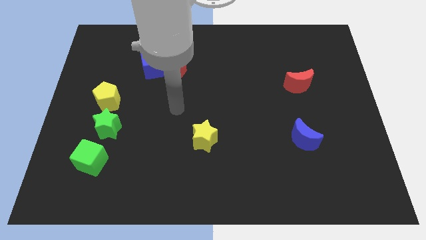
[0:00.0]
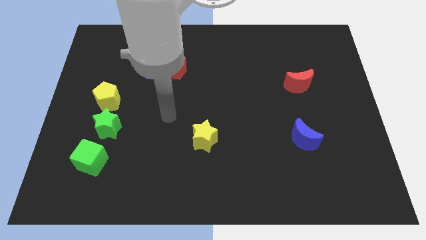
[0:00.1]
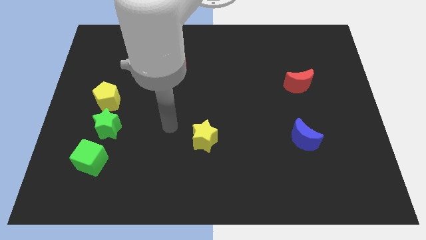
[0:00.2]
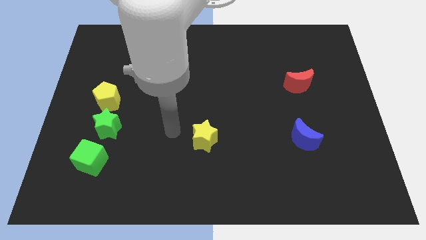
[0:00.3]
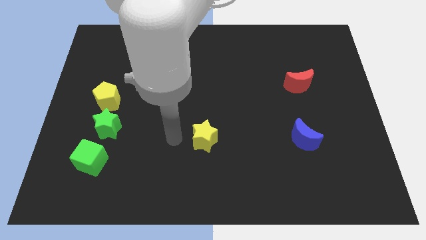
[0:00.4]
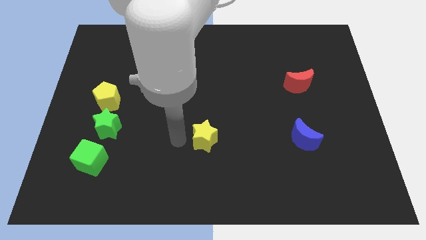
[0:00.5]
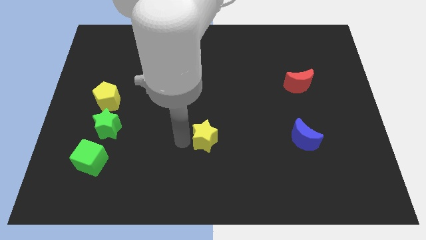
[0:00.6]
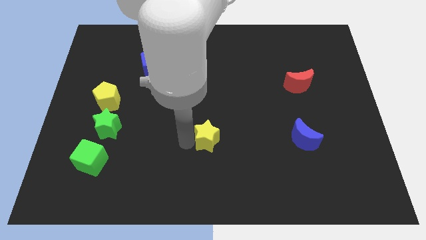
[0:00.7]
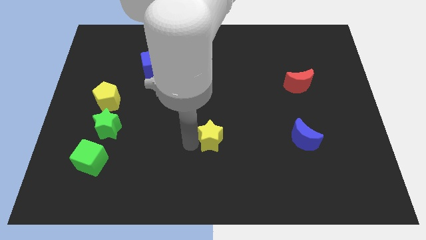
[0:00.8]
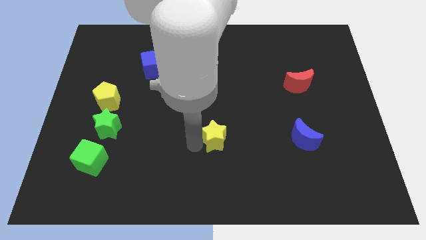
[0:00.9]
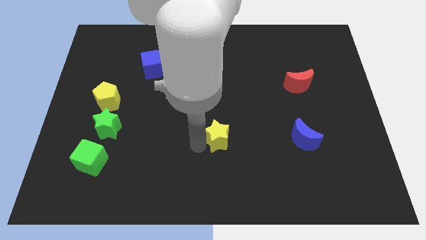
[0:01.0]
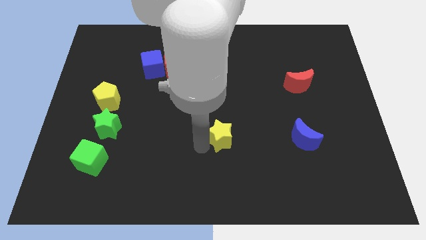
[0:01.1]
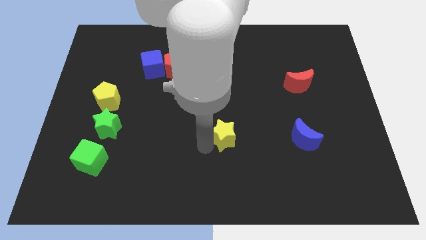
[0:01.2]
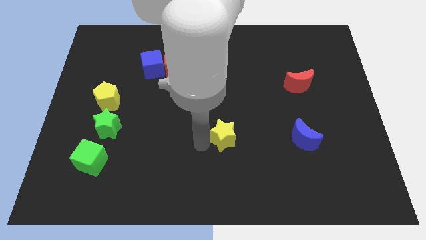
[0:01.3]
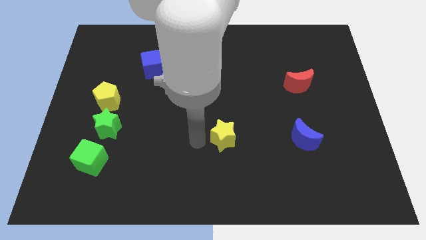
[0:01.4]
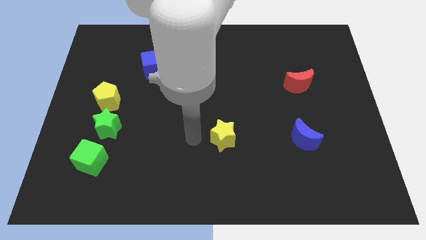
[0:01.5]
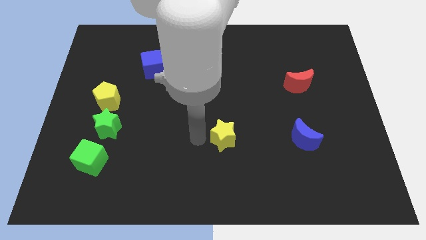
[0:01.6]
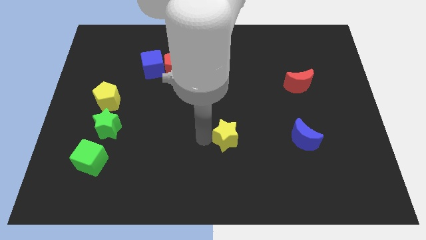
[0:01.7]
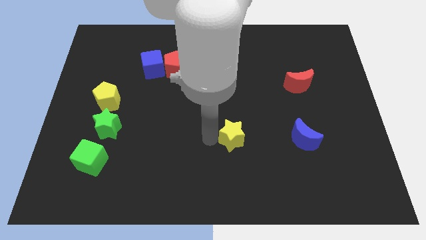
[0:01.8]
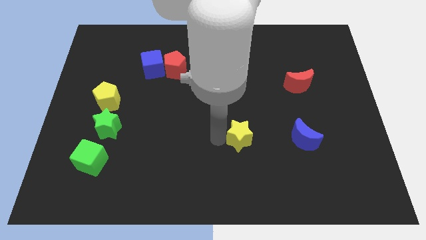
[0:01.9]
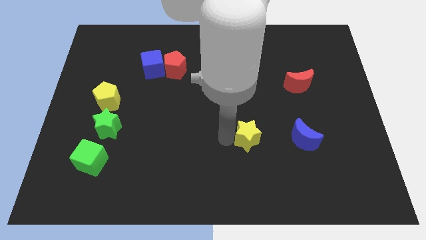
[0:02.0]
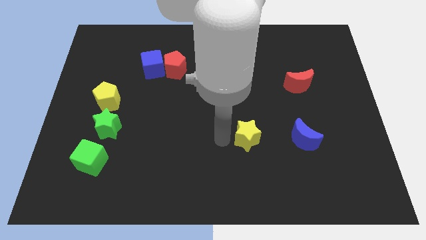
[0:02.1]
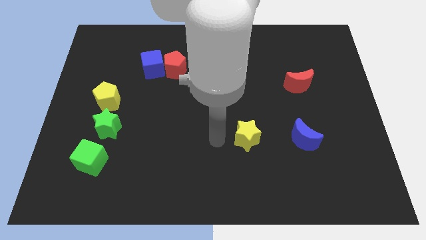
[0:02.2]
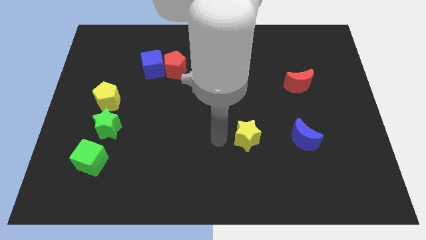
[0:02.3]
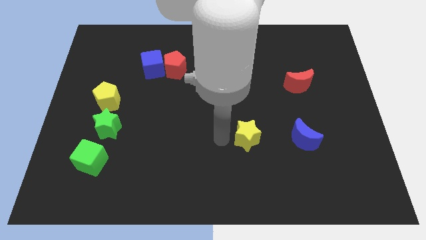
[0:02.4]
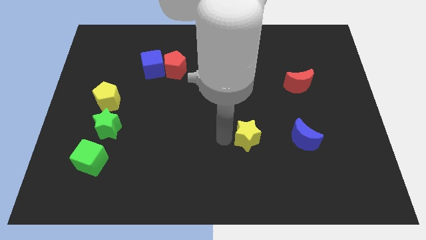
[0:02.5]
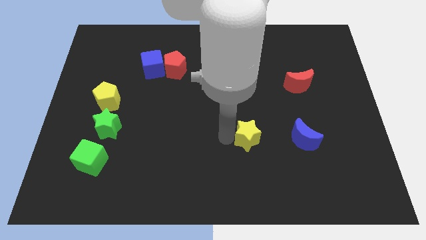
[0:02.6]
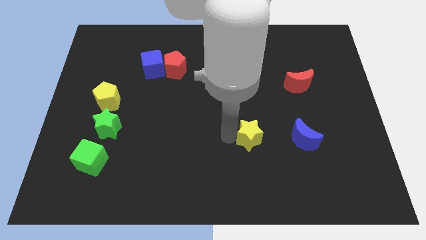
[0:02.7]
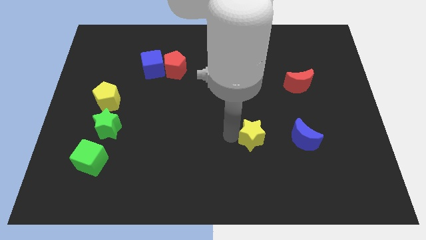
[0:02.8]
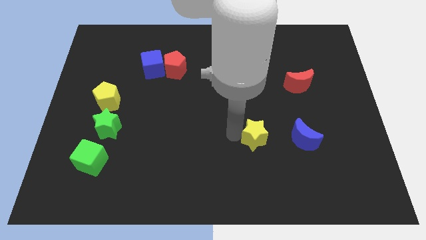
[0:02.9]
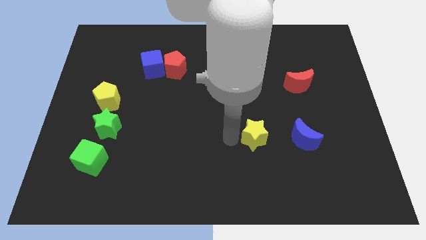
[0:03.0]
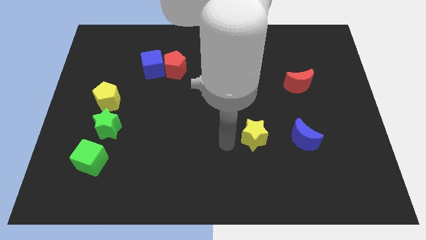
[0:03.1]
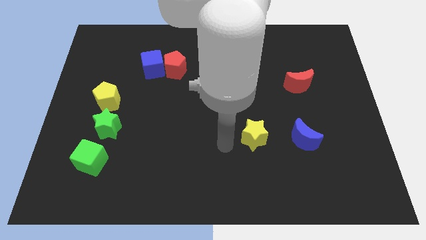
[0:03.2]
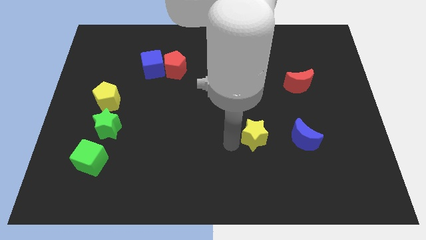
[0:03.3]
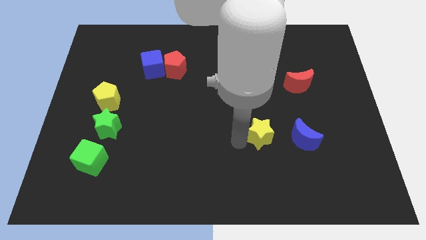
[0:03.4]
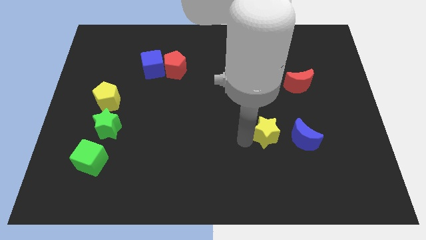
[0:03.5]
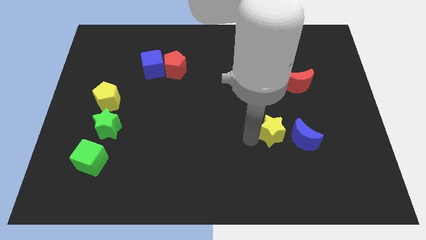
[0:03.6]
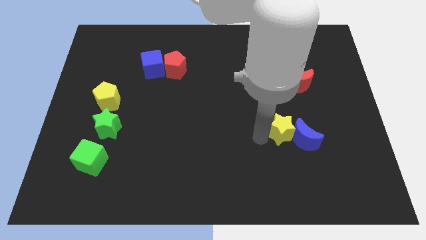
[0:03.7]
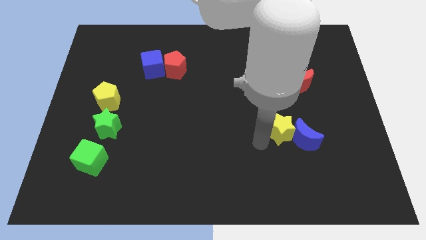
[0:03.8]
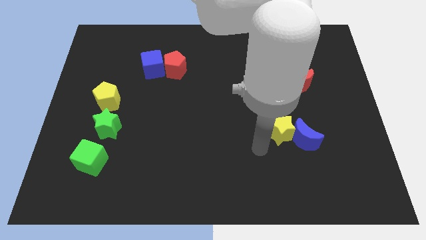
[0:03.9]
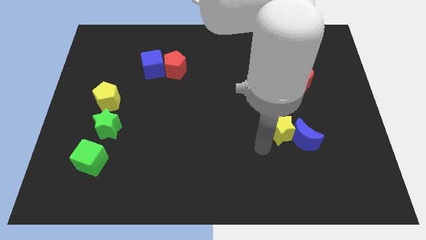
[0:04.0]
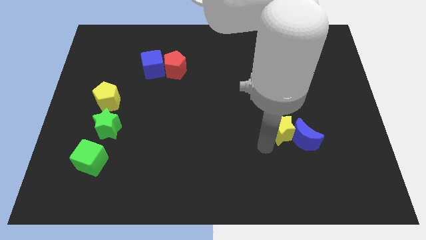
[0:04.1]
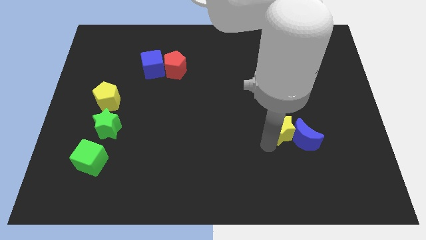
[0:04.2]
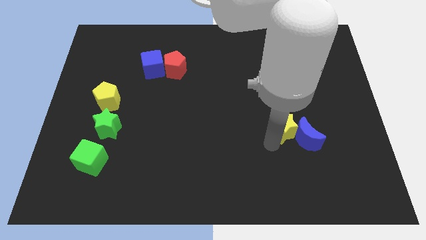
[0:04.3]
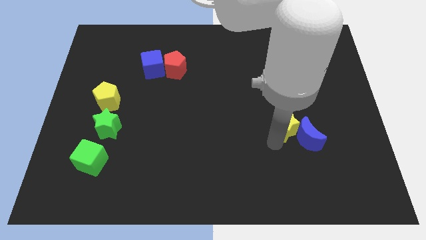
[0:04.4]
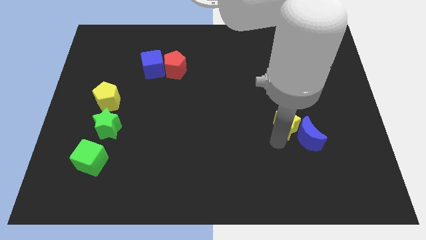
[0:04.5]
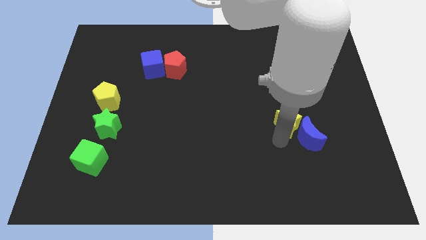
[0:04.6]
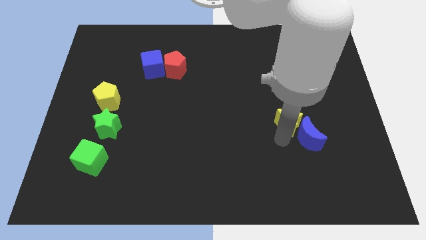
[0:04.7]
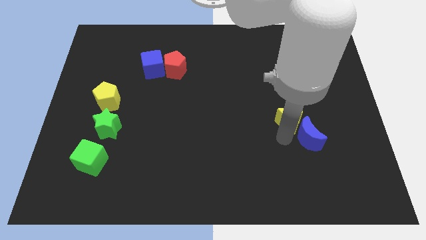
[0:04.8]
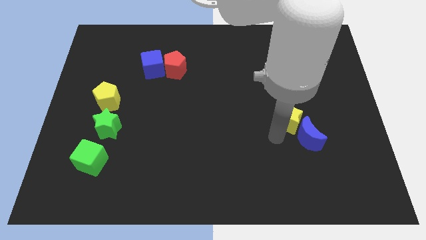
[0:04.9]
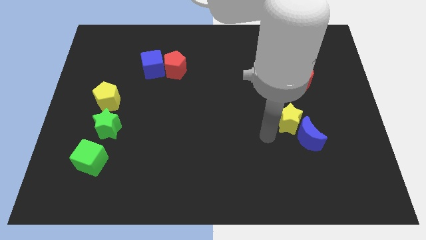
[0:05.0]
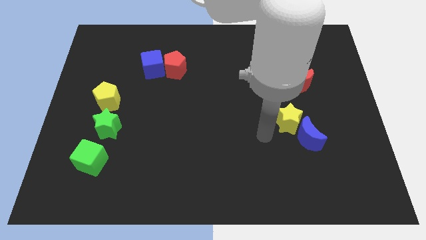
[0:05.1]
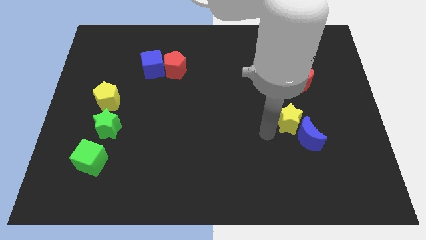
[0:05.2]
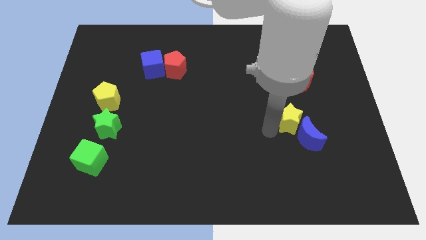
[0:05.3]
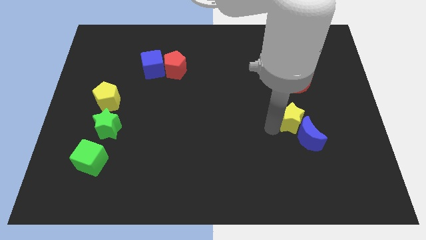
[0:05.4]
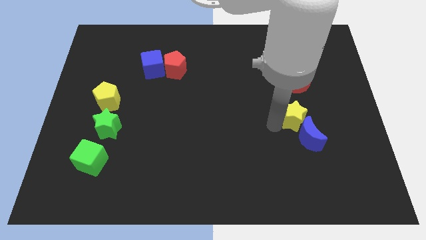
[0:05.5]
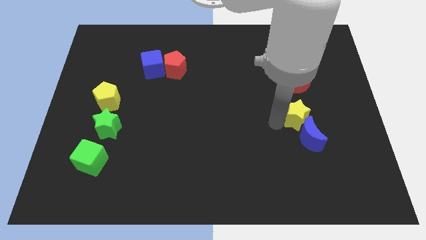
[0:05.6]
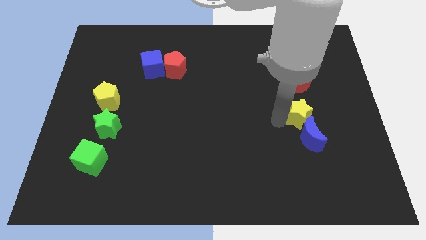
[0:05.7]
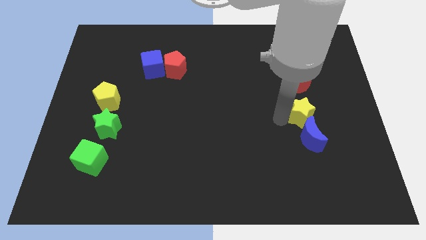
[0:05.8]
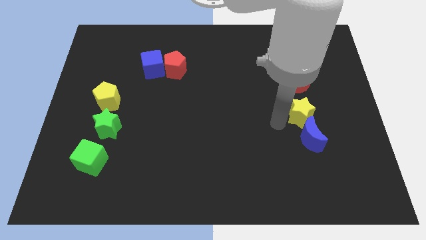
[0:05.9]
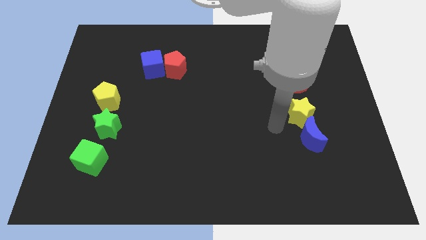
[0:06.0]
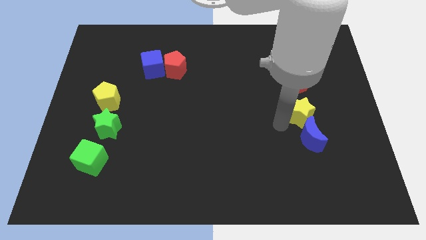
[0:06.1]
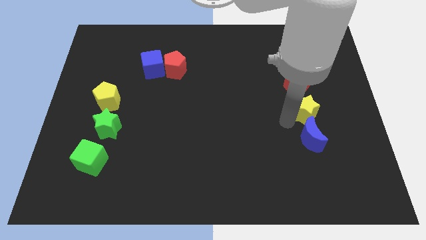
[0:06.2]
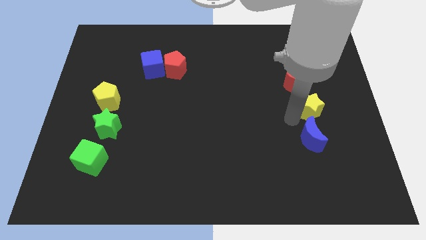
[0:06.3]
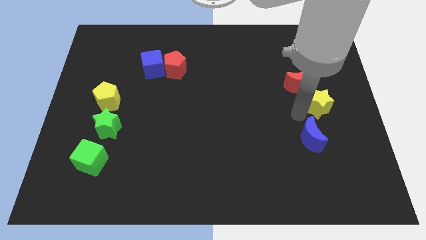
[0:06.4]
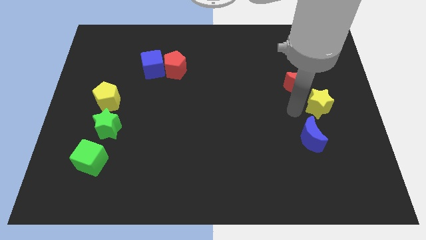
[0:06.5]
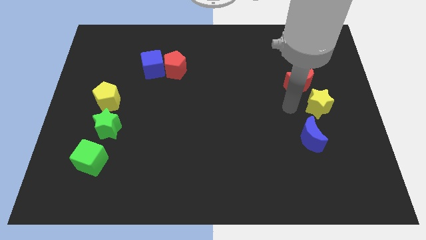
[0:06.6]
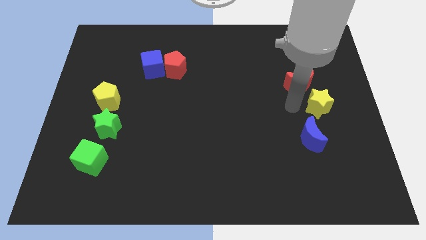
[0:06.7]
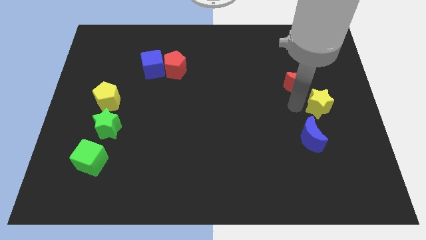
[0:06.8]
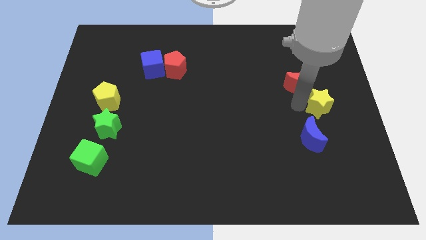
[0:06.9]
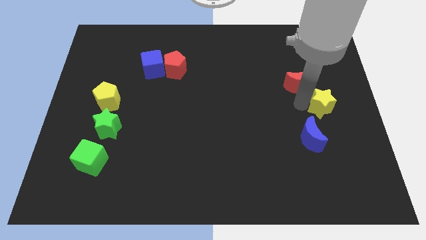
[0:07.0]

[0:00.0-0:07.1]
put the yellow star to the center right
